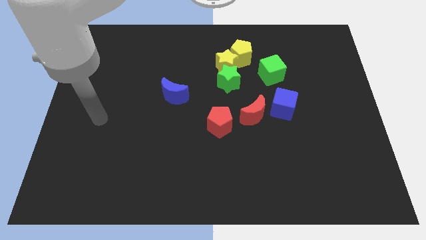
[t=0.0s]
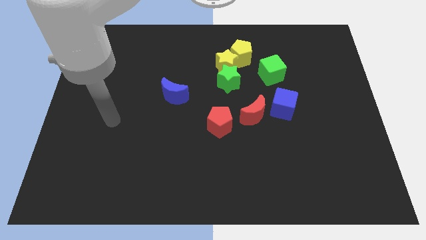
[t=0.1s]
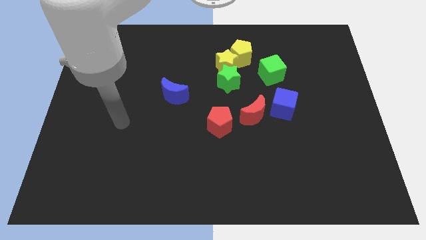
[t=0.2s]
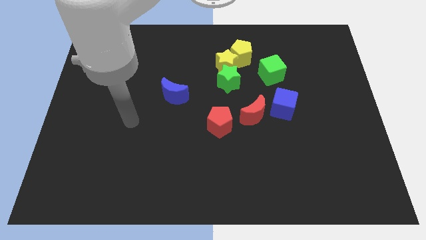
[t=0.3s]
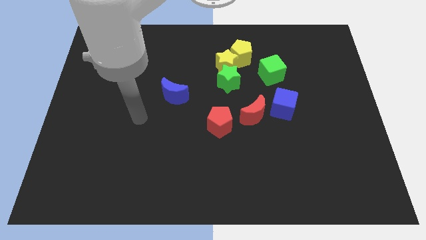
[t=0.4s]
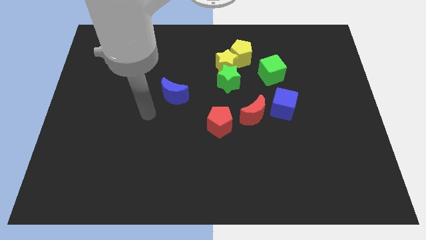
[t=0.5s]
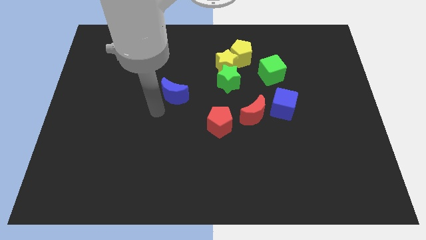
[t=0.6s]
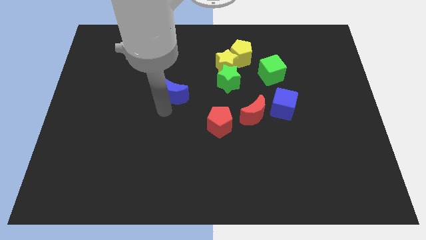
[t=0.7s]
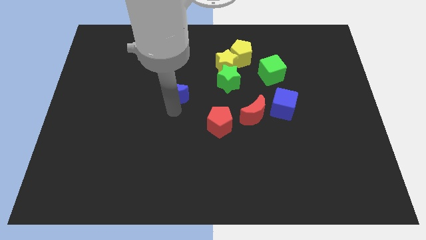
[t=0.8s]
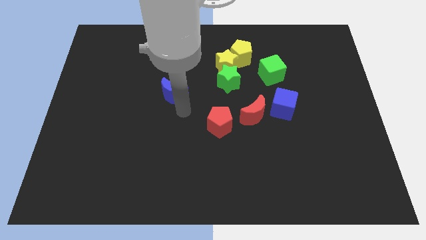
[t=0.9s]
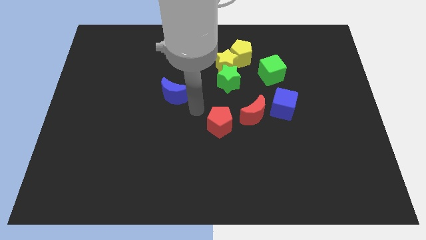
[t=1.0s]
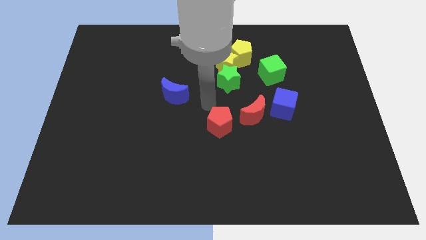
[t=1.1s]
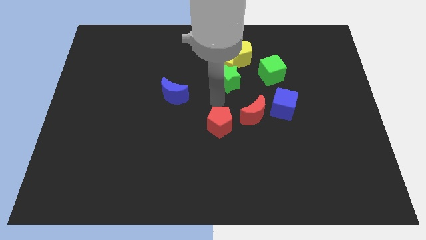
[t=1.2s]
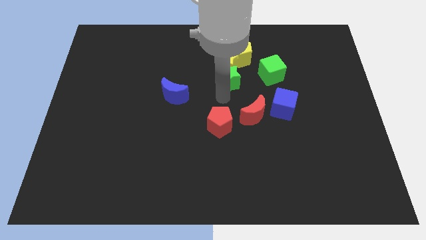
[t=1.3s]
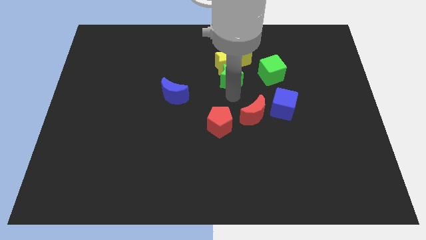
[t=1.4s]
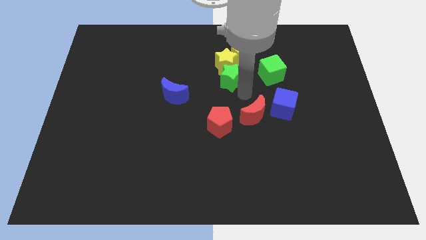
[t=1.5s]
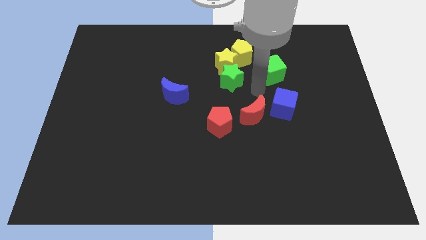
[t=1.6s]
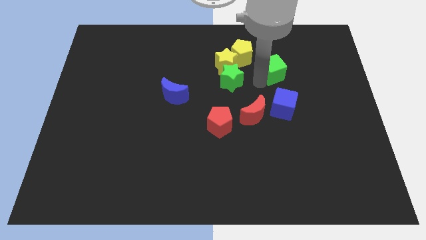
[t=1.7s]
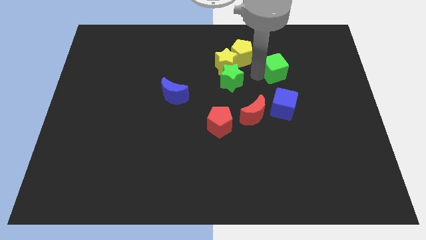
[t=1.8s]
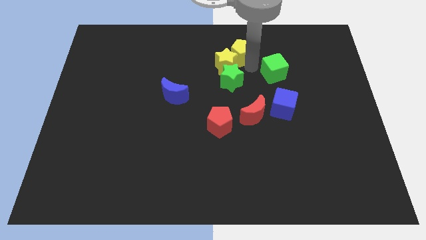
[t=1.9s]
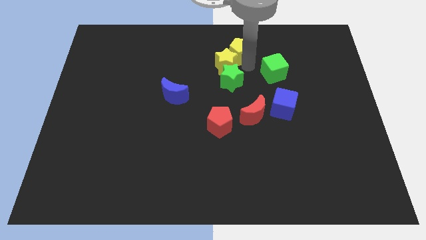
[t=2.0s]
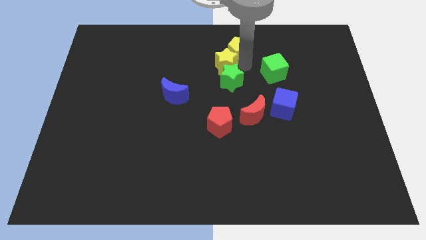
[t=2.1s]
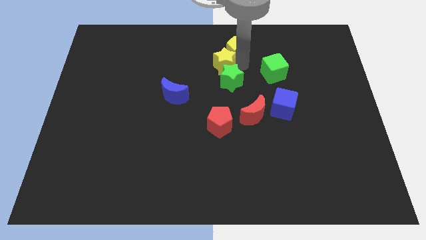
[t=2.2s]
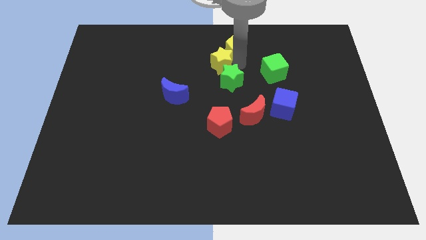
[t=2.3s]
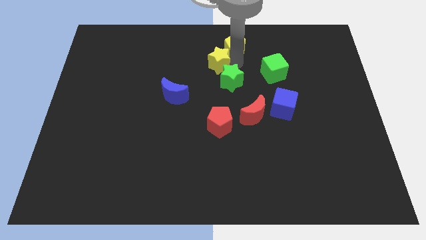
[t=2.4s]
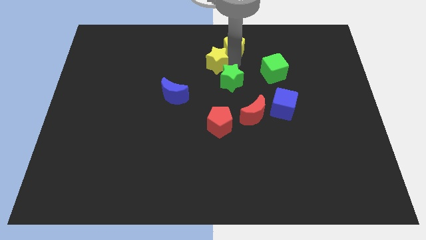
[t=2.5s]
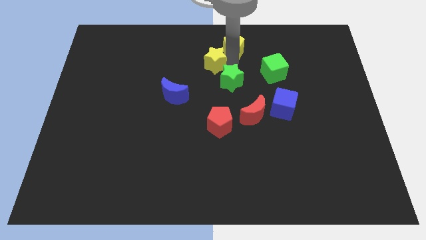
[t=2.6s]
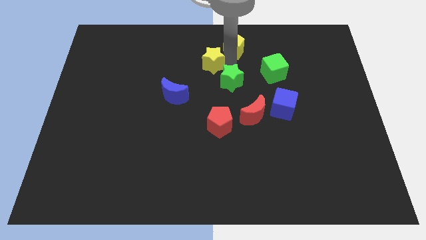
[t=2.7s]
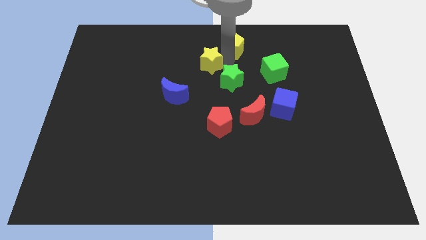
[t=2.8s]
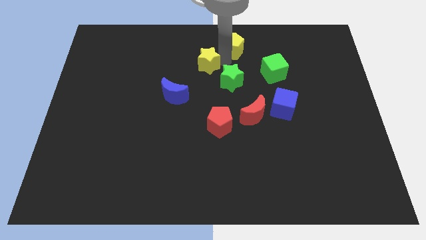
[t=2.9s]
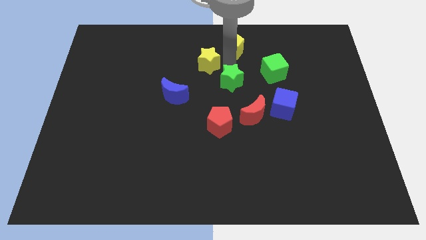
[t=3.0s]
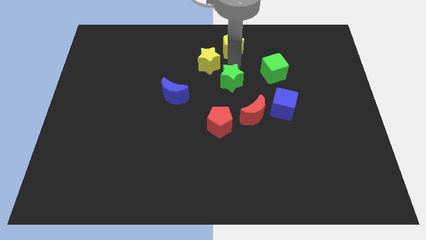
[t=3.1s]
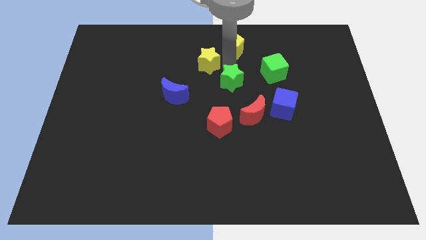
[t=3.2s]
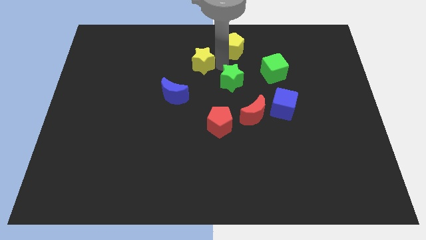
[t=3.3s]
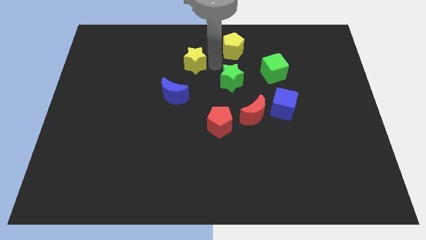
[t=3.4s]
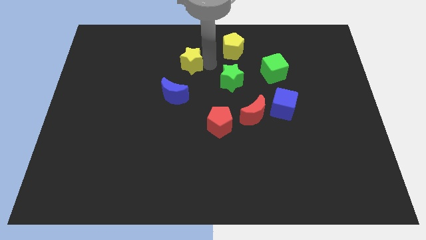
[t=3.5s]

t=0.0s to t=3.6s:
pull the yellow star apart from the green star and yellow pentagon

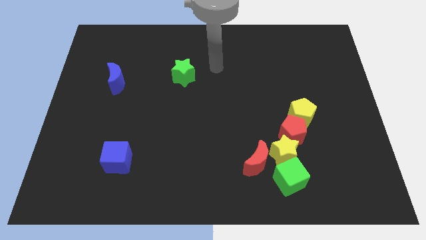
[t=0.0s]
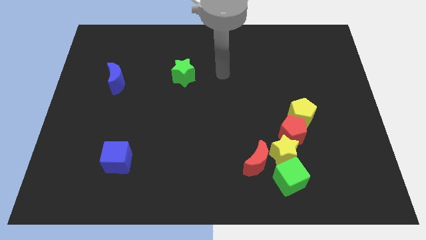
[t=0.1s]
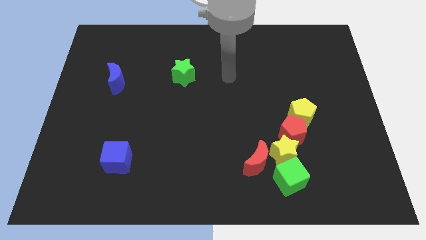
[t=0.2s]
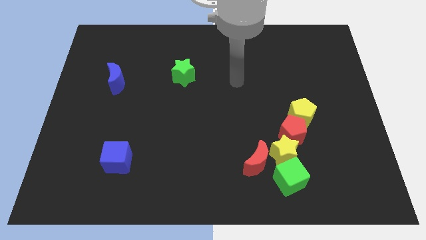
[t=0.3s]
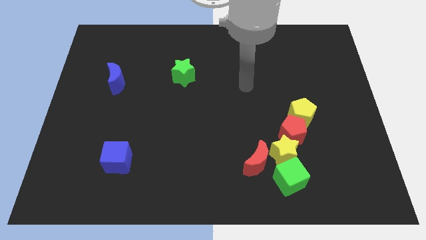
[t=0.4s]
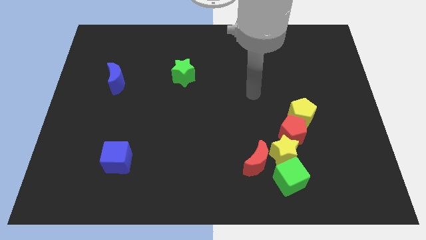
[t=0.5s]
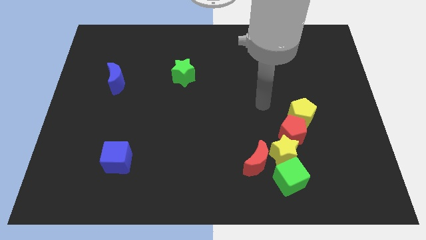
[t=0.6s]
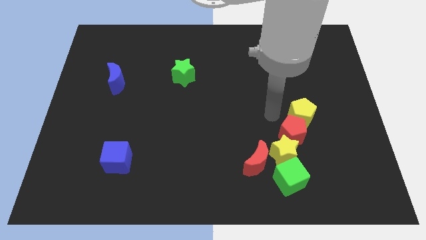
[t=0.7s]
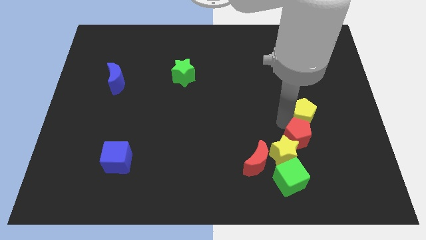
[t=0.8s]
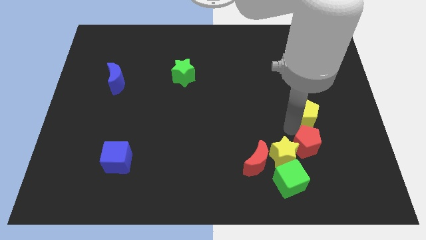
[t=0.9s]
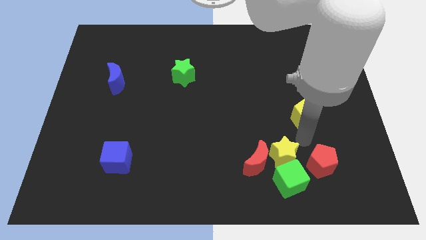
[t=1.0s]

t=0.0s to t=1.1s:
pull the yellow pentagon apart from the red pentagon

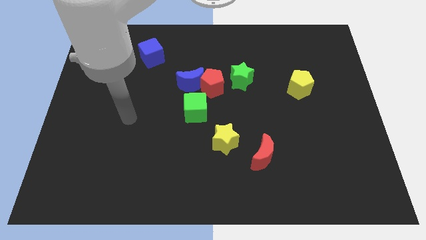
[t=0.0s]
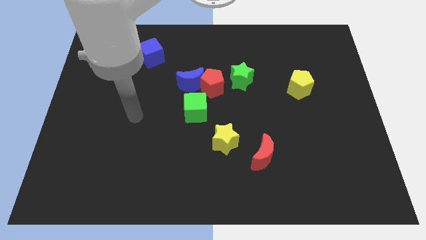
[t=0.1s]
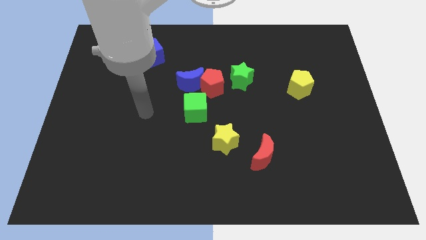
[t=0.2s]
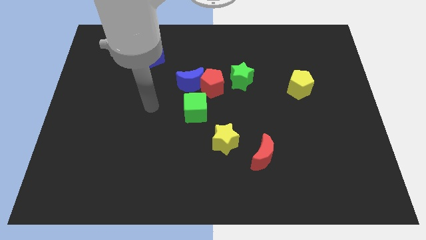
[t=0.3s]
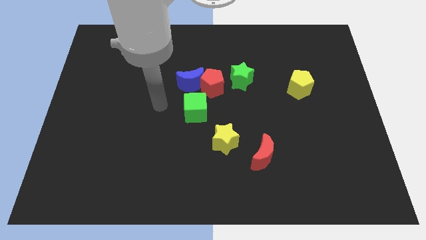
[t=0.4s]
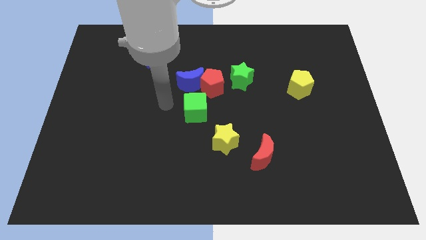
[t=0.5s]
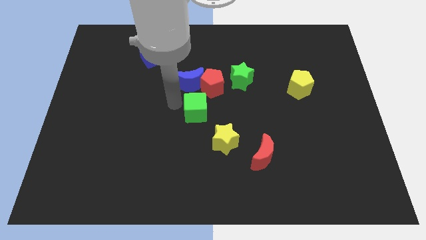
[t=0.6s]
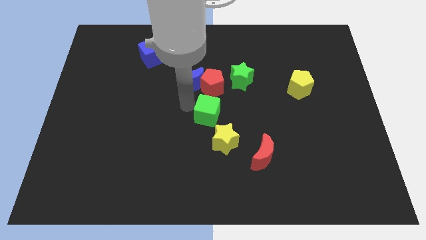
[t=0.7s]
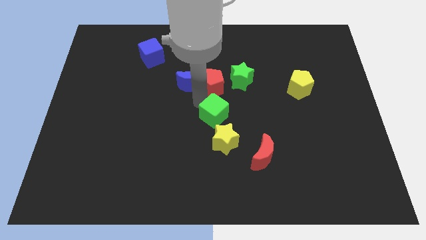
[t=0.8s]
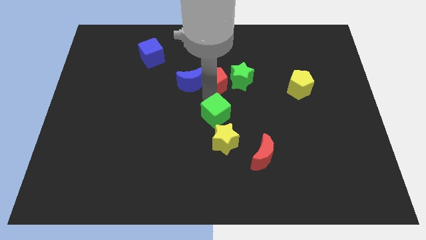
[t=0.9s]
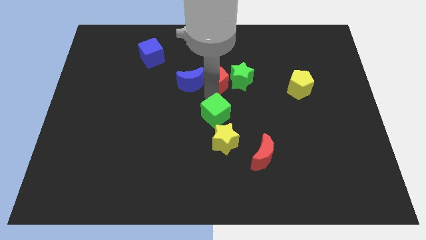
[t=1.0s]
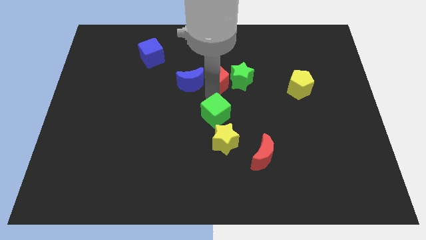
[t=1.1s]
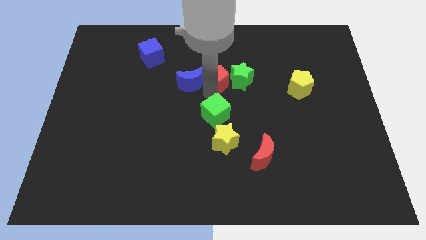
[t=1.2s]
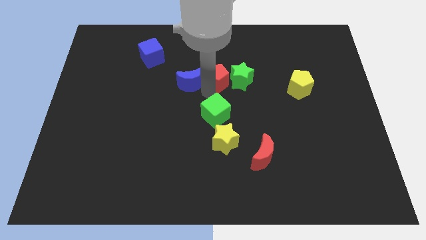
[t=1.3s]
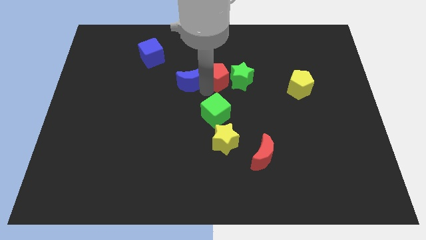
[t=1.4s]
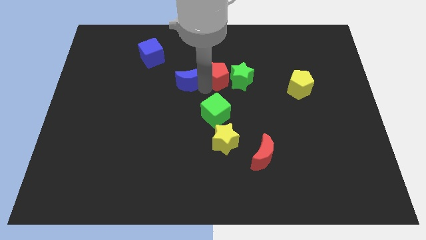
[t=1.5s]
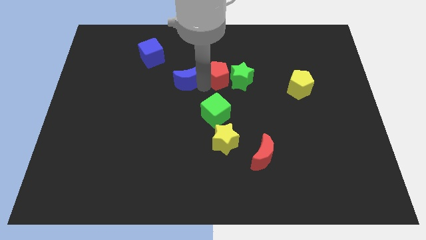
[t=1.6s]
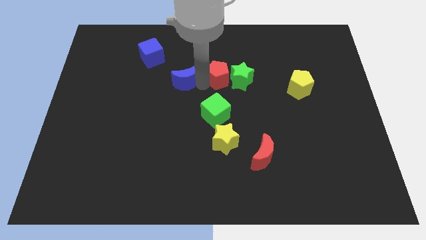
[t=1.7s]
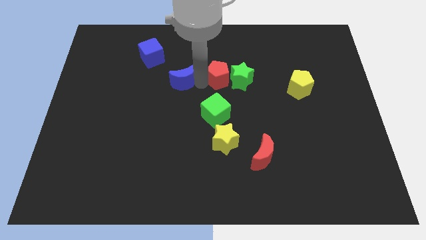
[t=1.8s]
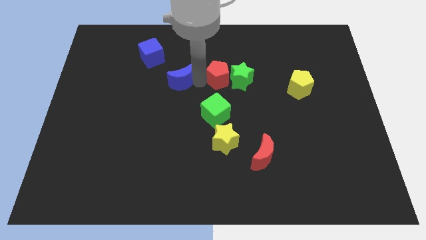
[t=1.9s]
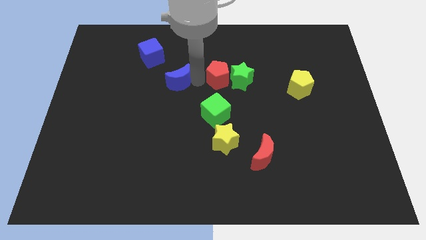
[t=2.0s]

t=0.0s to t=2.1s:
pull the blue moon apart from the red pentagon and green cube

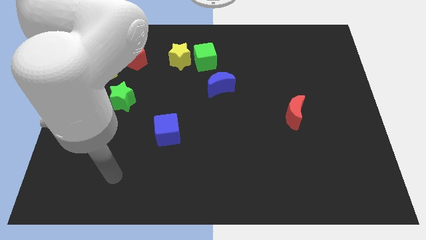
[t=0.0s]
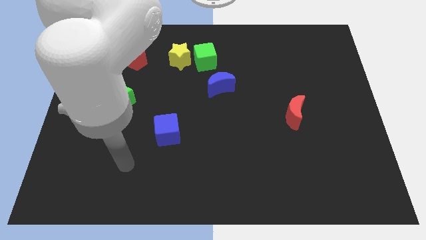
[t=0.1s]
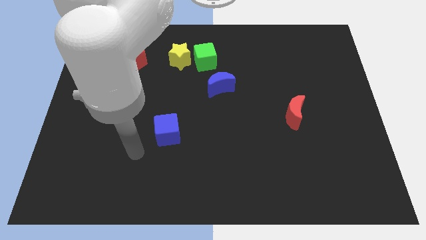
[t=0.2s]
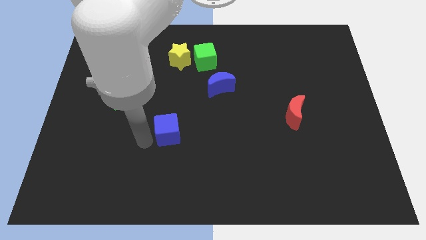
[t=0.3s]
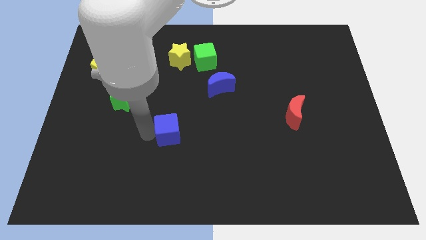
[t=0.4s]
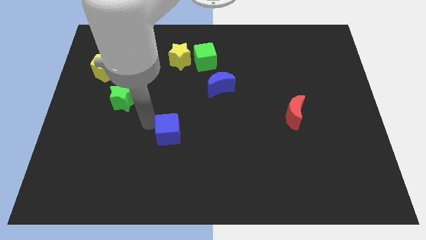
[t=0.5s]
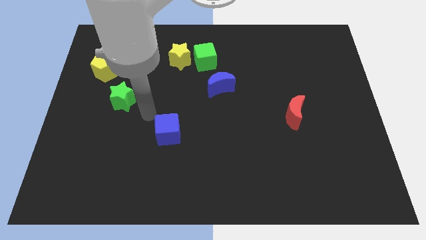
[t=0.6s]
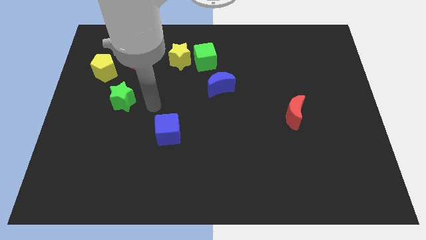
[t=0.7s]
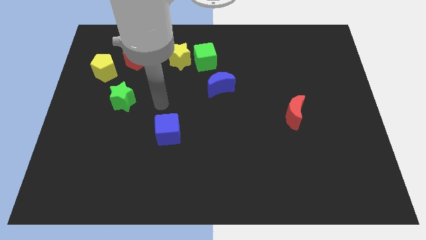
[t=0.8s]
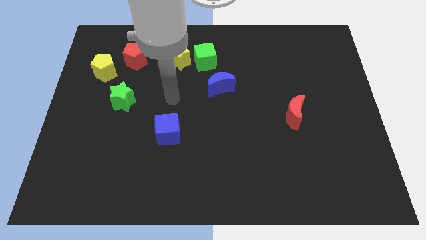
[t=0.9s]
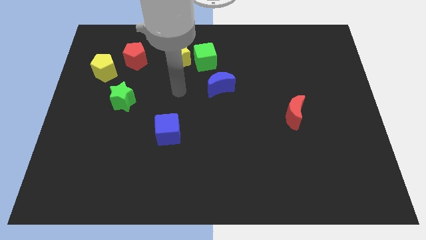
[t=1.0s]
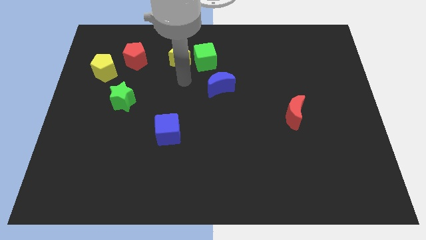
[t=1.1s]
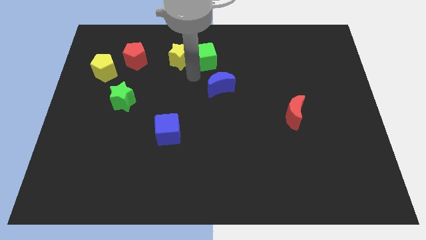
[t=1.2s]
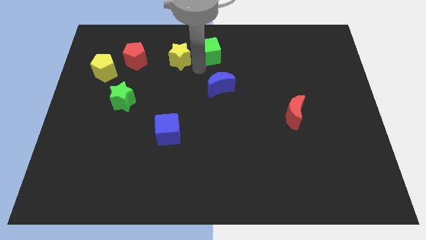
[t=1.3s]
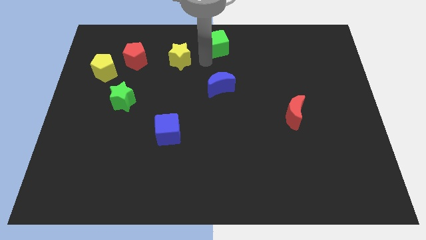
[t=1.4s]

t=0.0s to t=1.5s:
separate the yellow star from the green cube

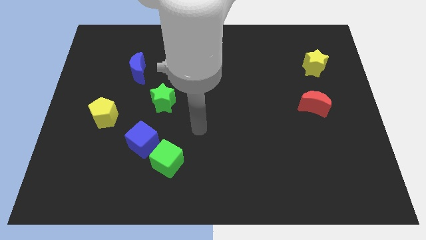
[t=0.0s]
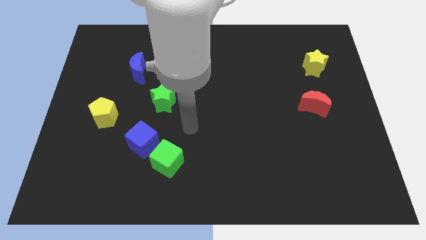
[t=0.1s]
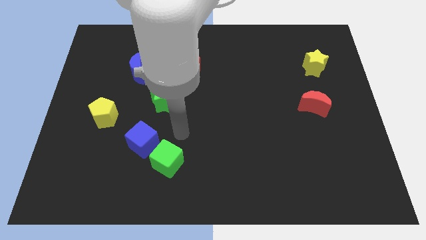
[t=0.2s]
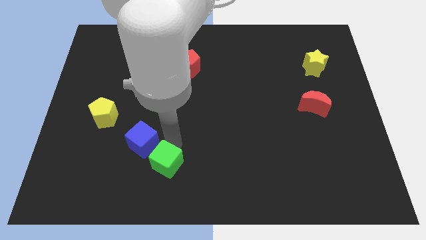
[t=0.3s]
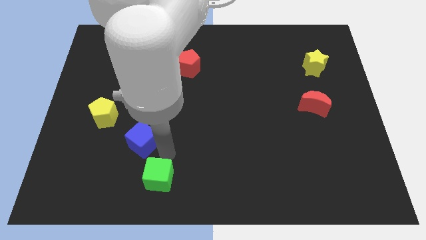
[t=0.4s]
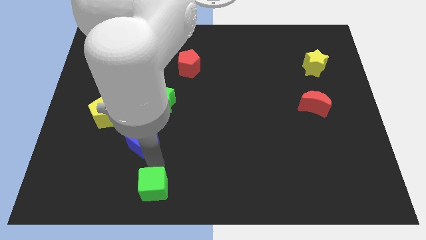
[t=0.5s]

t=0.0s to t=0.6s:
move the blue cube away from the green cube

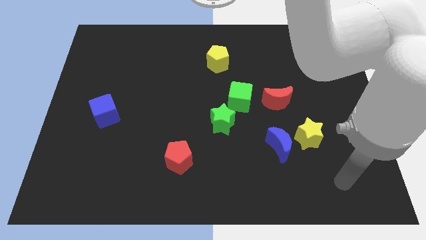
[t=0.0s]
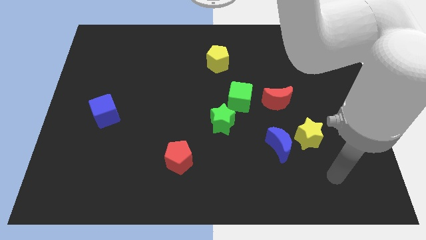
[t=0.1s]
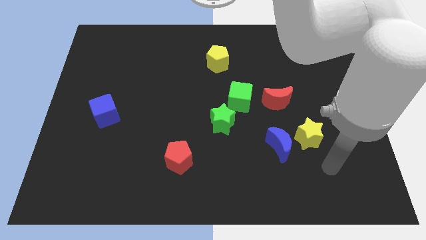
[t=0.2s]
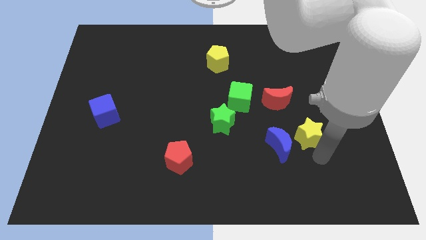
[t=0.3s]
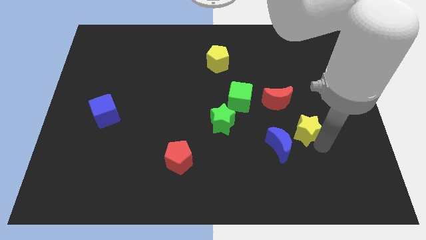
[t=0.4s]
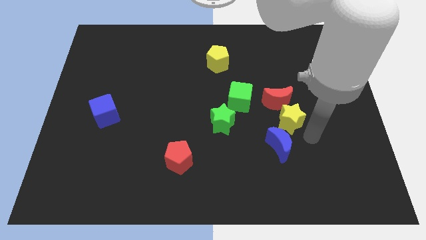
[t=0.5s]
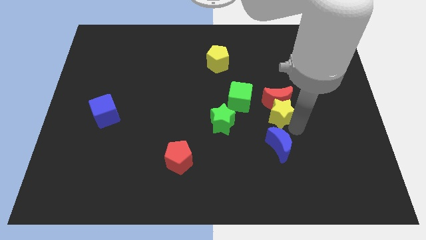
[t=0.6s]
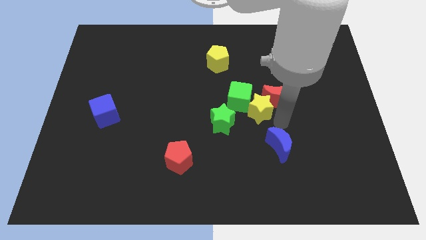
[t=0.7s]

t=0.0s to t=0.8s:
pull the blue moon apart from the yellow star
